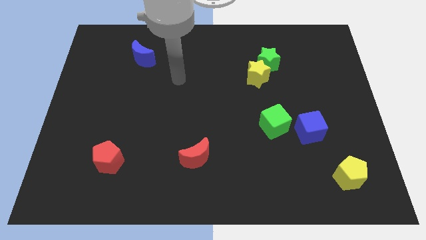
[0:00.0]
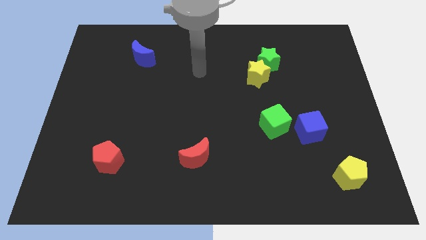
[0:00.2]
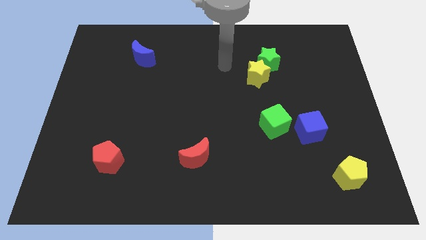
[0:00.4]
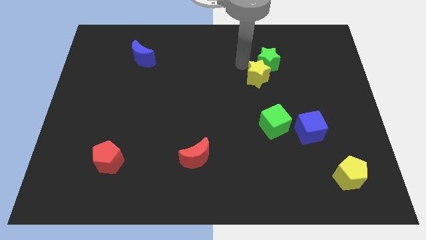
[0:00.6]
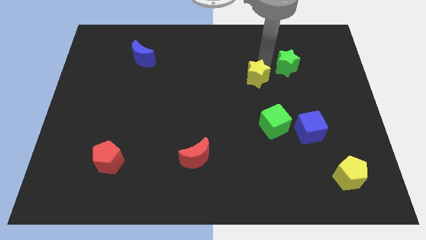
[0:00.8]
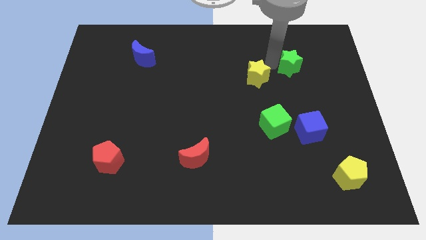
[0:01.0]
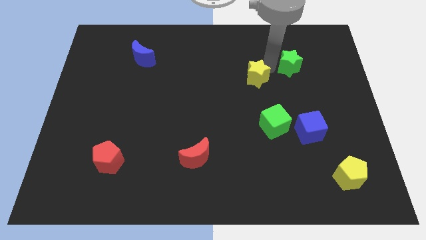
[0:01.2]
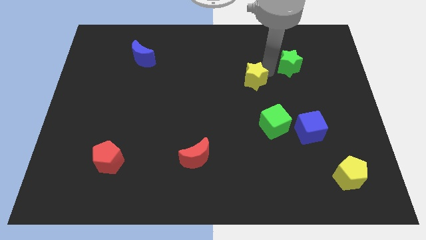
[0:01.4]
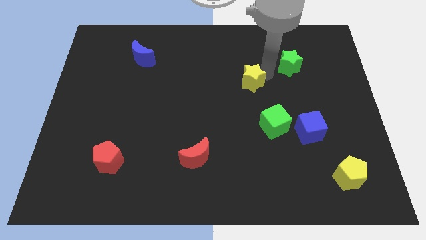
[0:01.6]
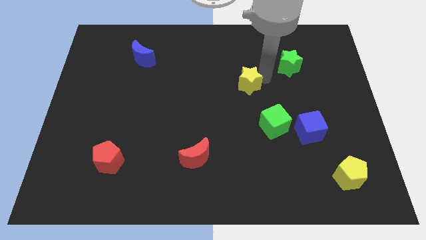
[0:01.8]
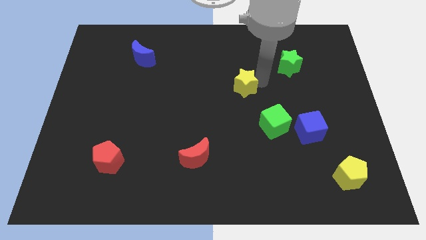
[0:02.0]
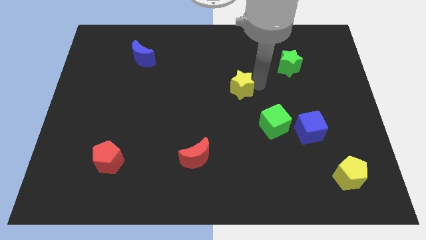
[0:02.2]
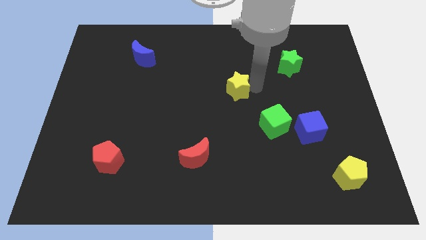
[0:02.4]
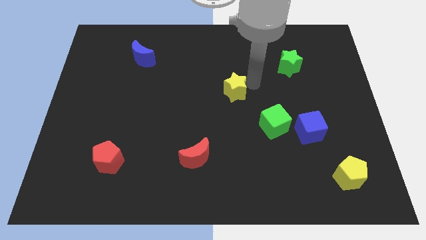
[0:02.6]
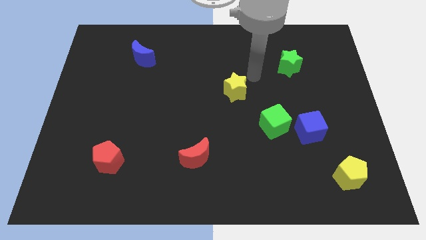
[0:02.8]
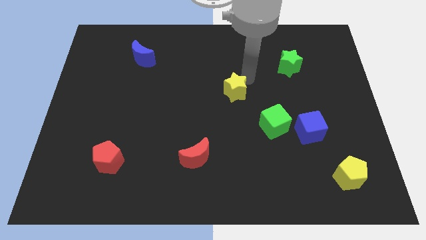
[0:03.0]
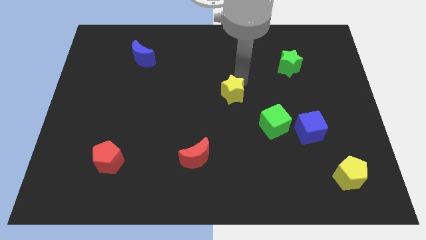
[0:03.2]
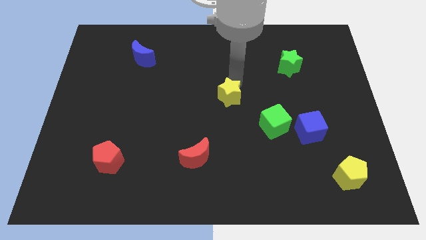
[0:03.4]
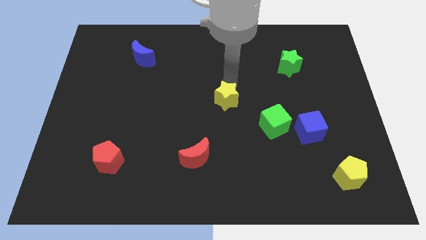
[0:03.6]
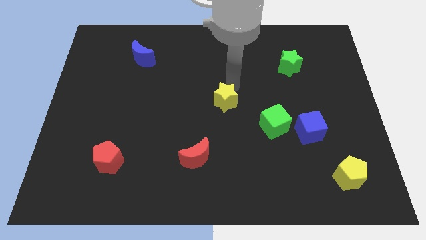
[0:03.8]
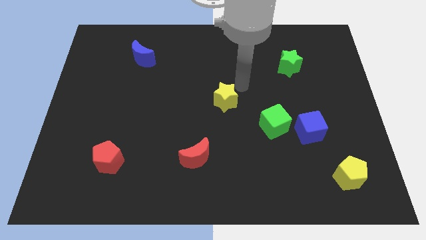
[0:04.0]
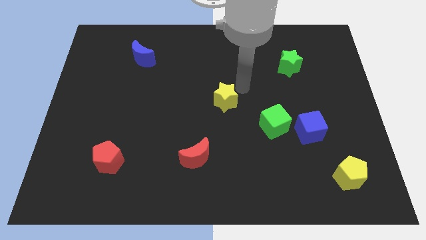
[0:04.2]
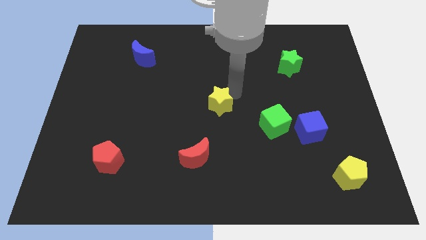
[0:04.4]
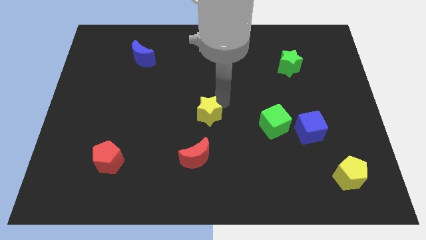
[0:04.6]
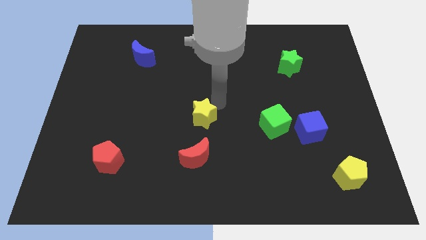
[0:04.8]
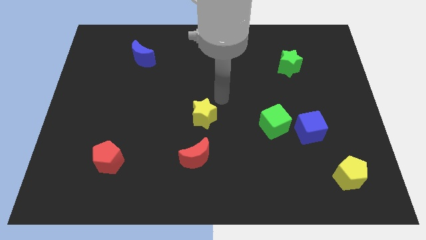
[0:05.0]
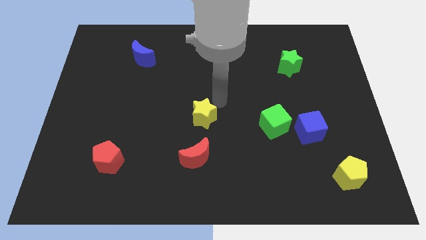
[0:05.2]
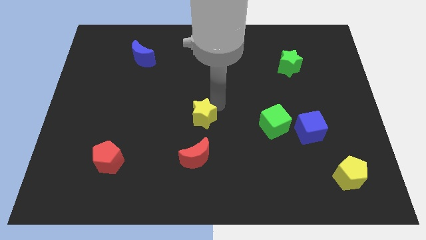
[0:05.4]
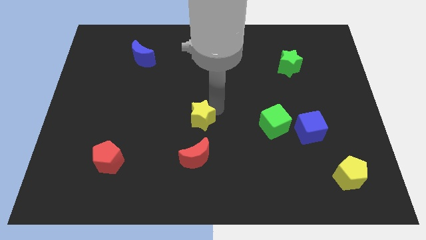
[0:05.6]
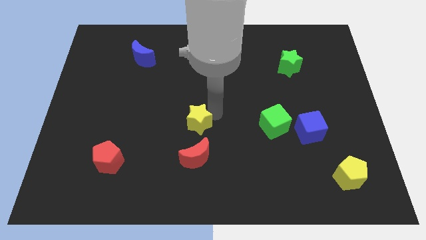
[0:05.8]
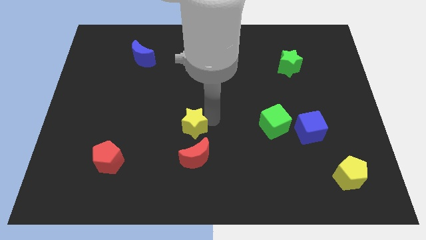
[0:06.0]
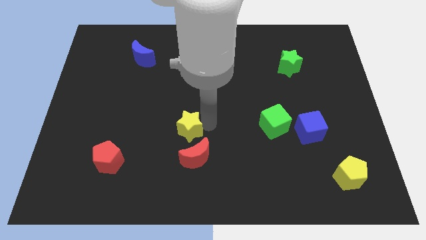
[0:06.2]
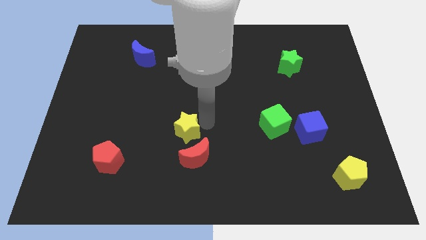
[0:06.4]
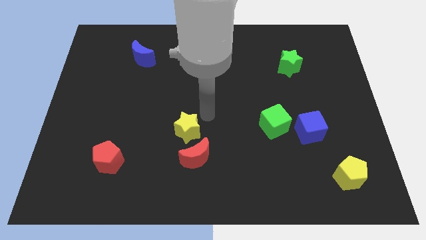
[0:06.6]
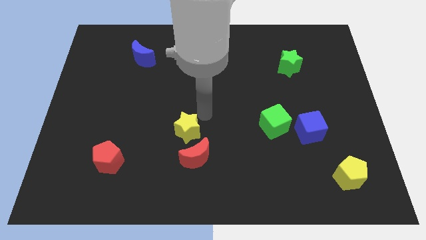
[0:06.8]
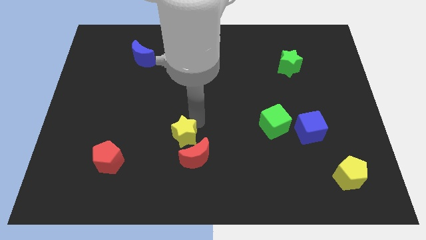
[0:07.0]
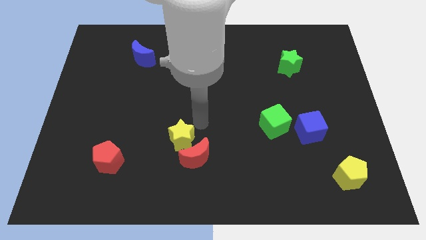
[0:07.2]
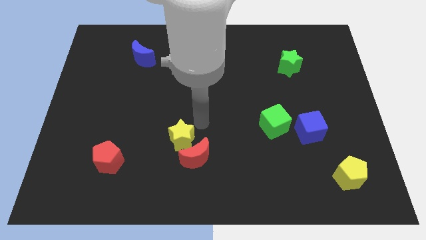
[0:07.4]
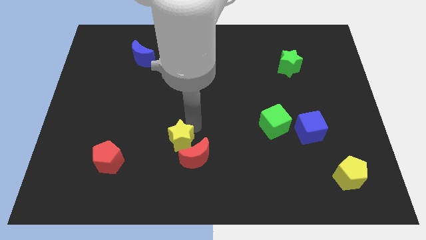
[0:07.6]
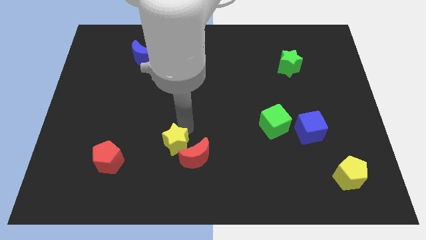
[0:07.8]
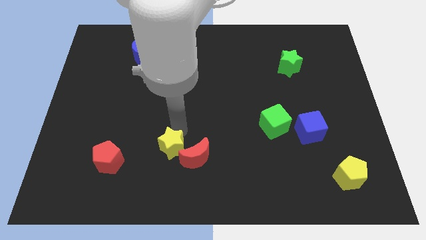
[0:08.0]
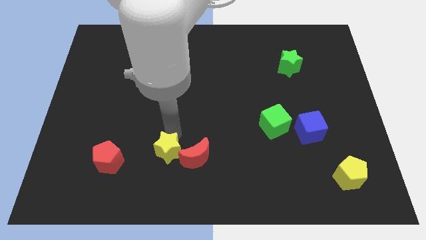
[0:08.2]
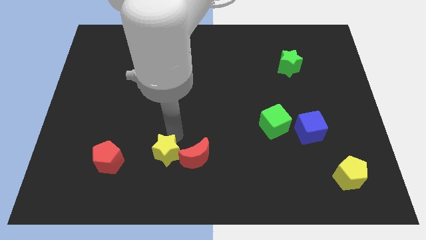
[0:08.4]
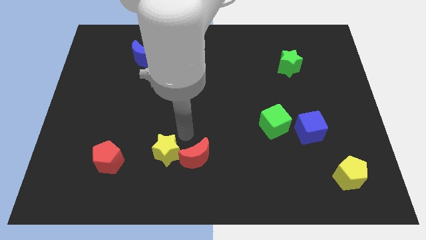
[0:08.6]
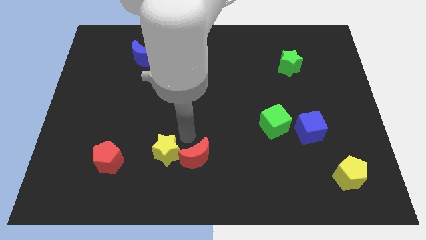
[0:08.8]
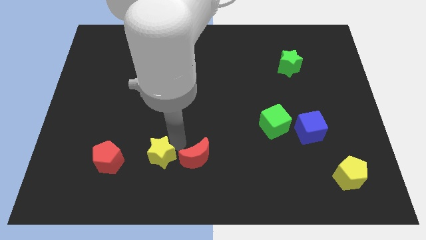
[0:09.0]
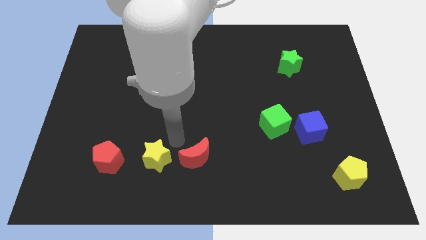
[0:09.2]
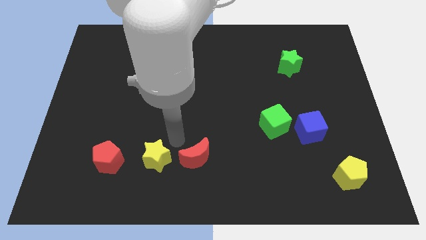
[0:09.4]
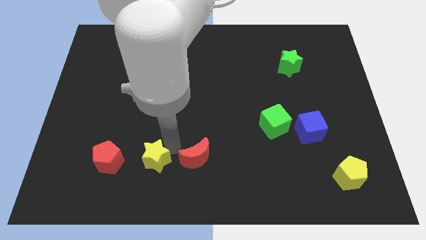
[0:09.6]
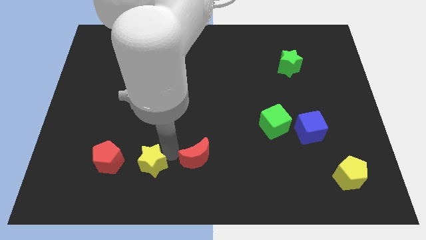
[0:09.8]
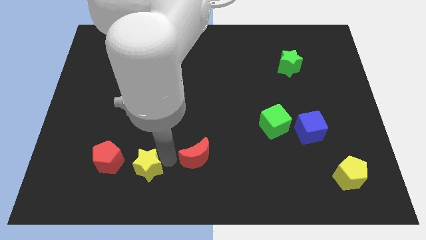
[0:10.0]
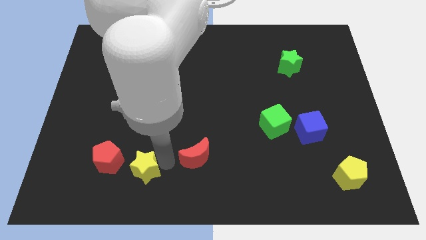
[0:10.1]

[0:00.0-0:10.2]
move the yellow star diagonally down and to the right of the red pentagon

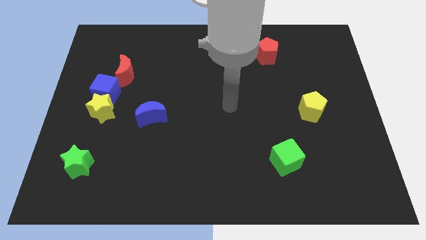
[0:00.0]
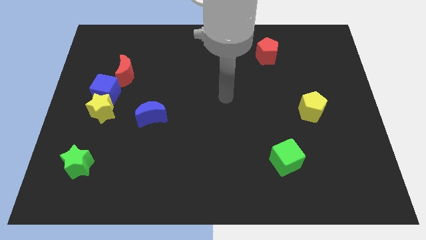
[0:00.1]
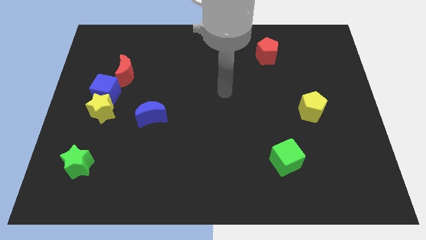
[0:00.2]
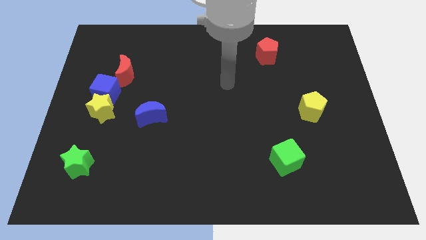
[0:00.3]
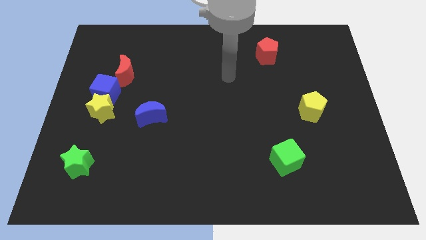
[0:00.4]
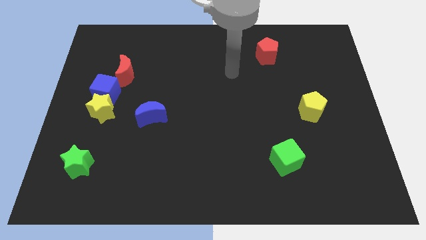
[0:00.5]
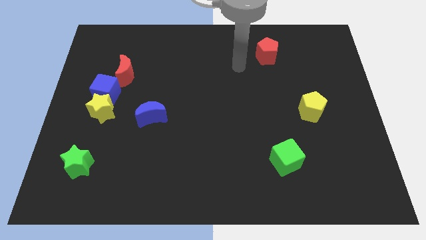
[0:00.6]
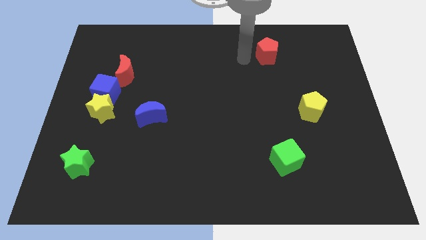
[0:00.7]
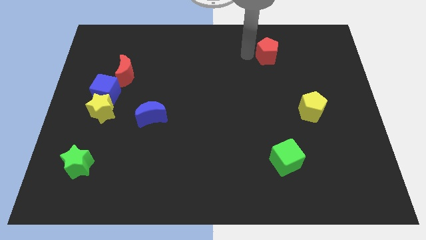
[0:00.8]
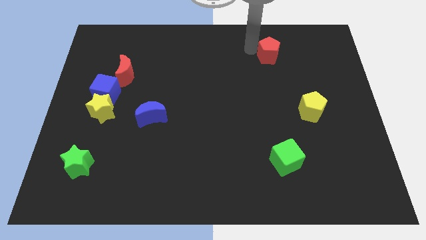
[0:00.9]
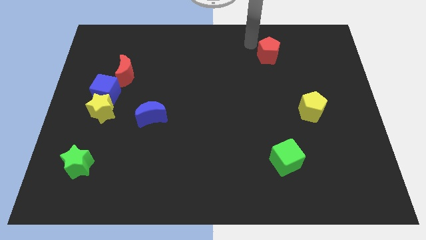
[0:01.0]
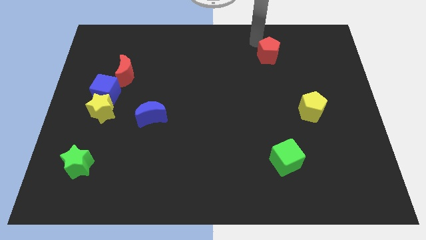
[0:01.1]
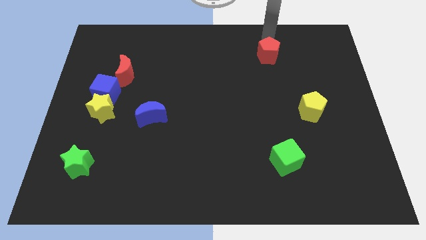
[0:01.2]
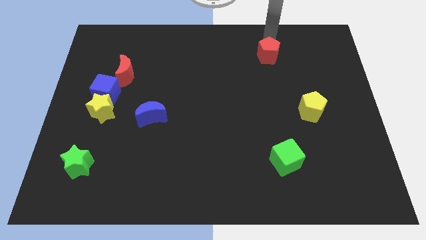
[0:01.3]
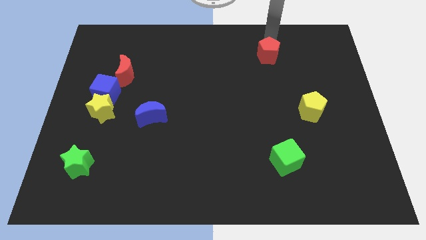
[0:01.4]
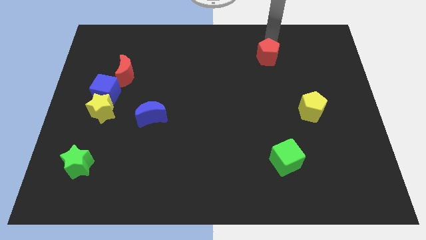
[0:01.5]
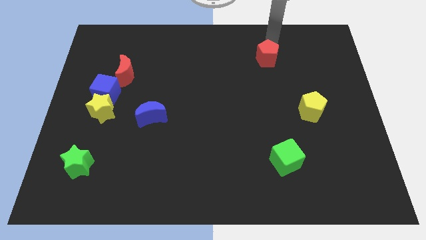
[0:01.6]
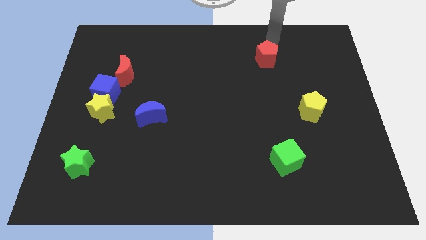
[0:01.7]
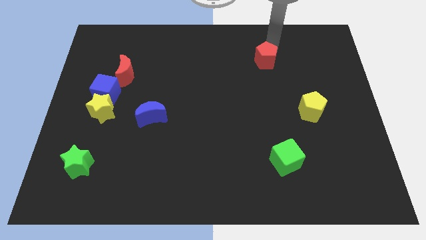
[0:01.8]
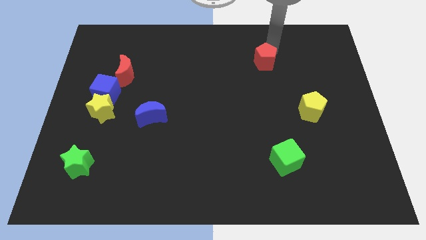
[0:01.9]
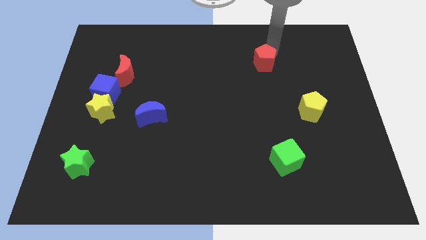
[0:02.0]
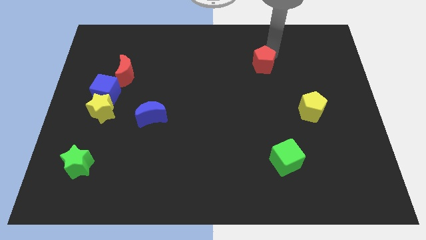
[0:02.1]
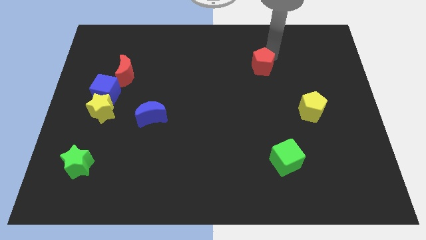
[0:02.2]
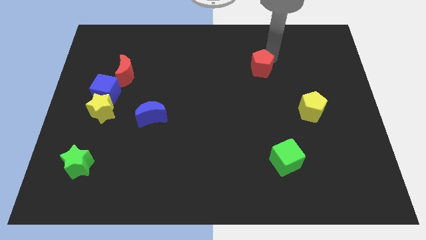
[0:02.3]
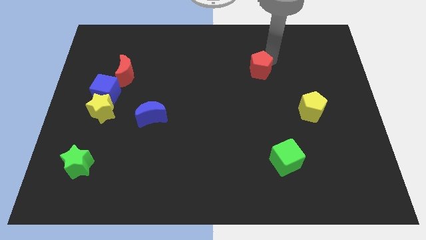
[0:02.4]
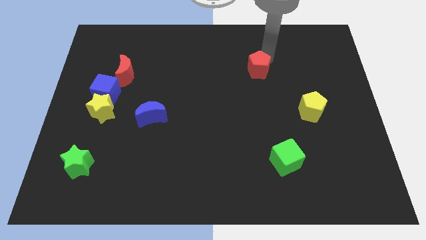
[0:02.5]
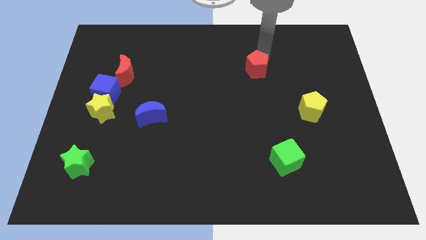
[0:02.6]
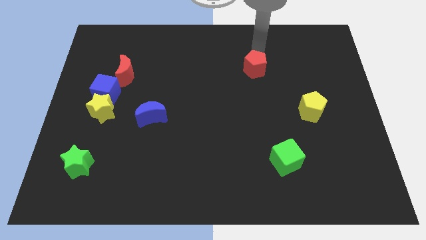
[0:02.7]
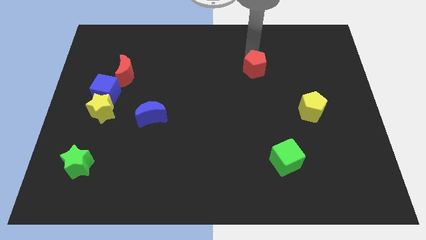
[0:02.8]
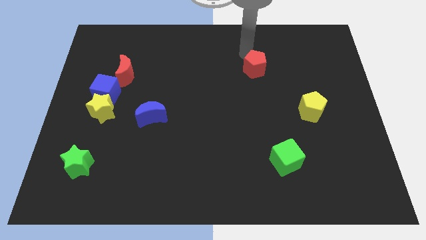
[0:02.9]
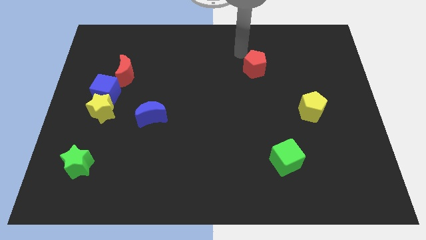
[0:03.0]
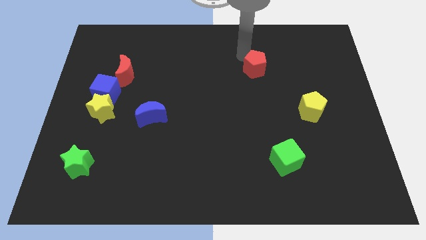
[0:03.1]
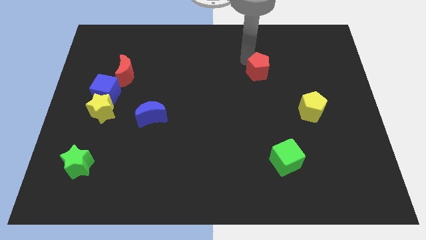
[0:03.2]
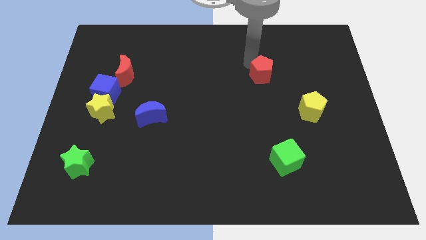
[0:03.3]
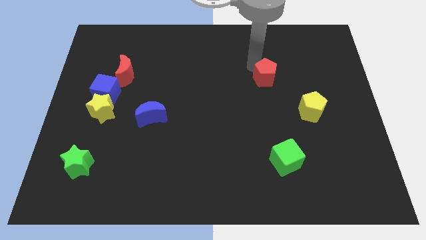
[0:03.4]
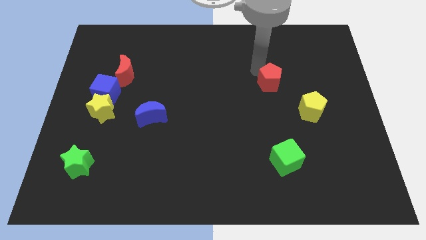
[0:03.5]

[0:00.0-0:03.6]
move the red pentagon to the top left side of the yellow pentagon
